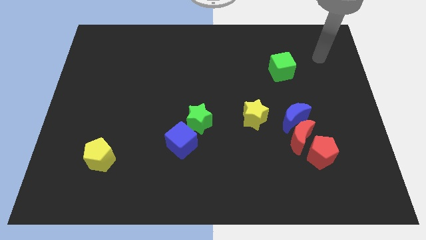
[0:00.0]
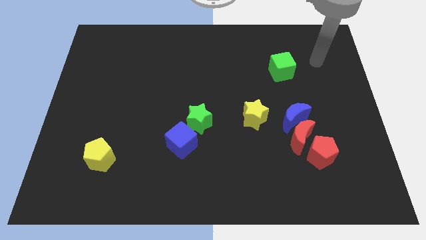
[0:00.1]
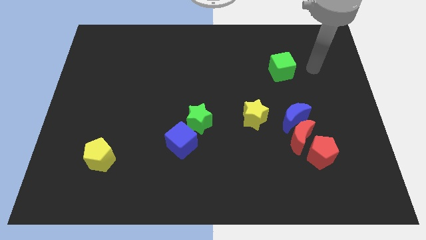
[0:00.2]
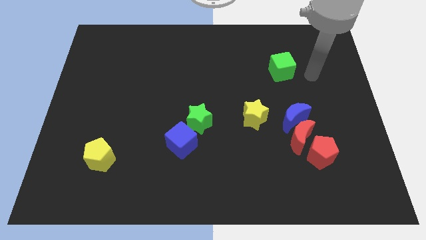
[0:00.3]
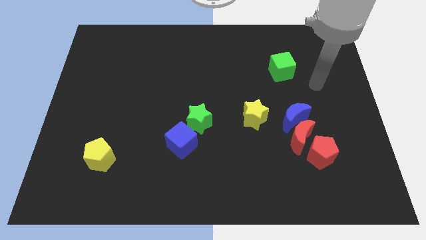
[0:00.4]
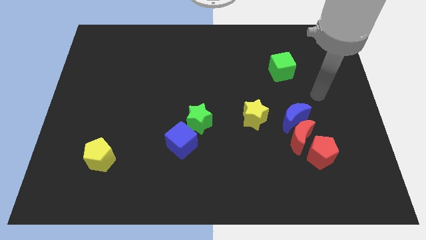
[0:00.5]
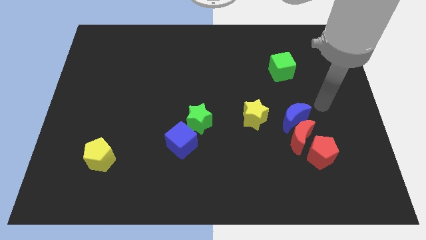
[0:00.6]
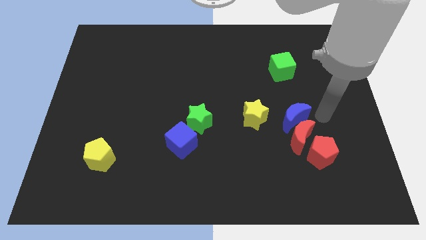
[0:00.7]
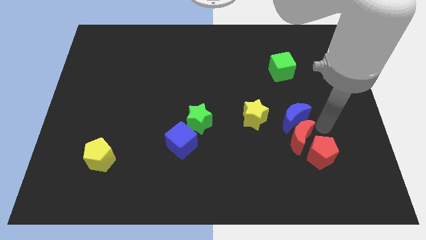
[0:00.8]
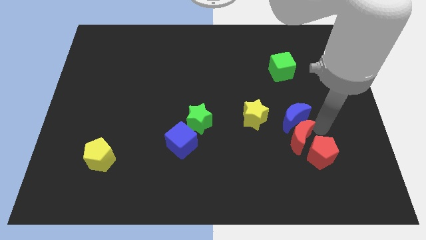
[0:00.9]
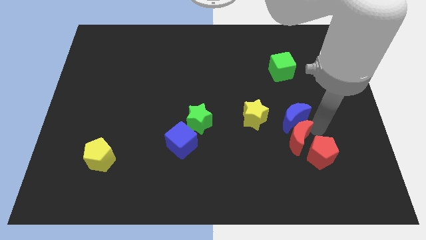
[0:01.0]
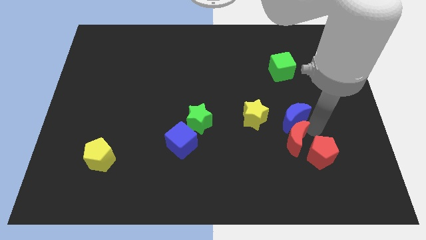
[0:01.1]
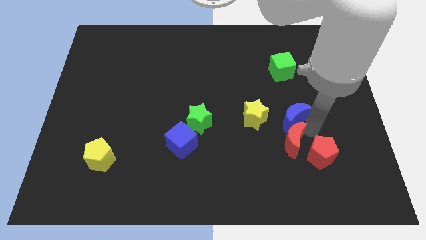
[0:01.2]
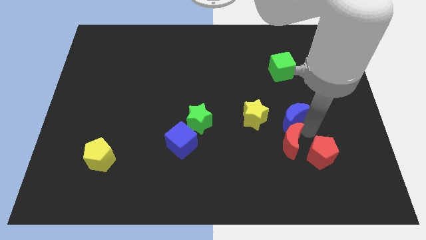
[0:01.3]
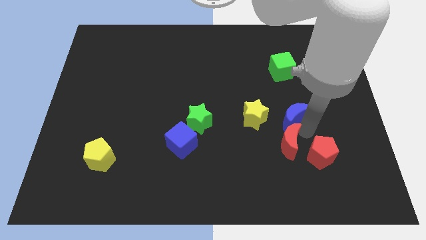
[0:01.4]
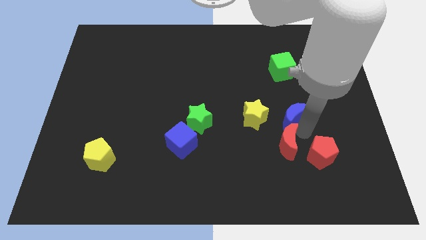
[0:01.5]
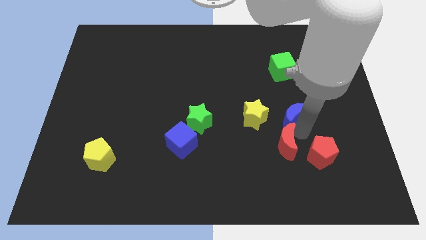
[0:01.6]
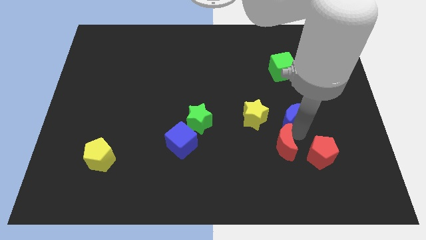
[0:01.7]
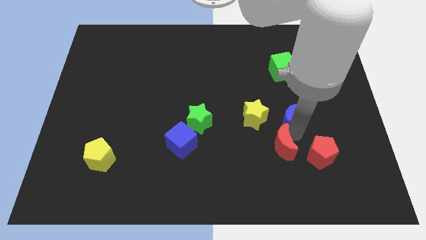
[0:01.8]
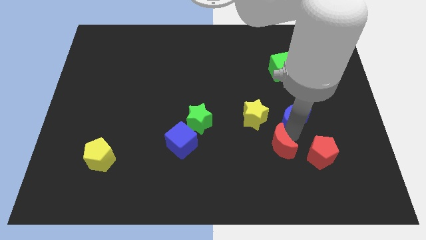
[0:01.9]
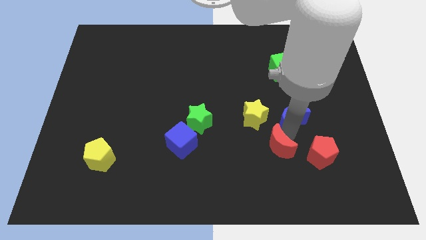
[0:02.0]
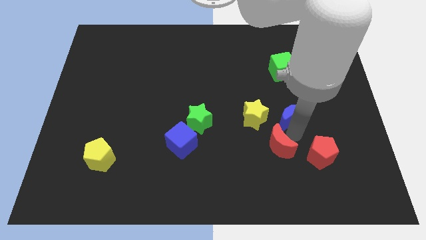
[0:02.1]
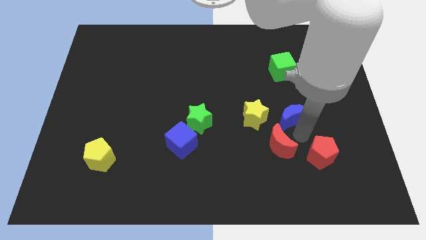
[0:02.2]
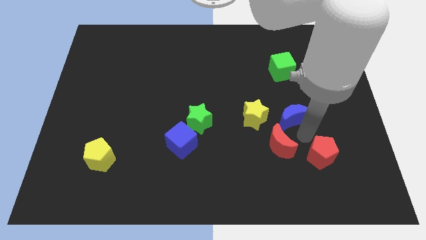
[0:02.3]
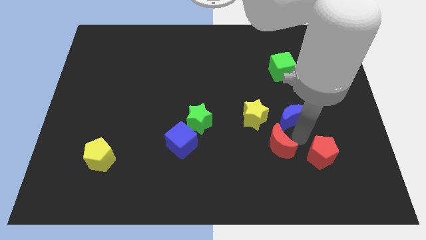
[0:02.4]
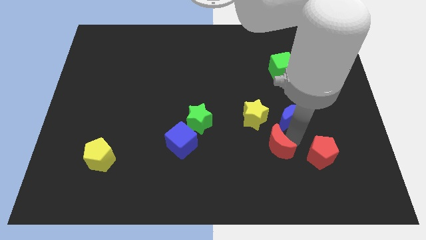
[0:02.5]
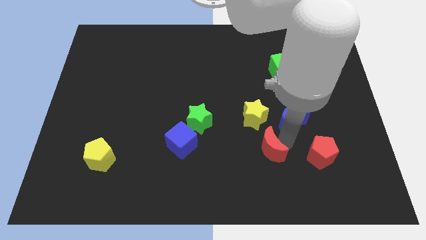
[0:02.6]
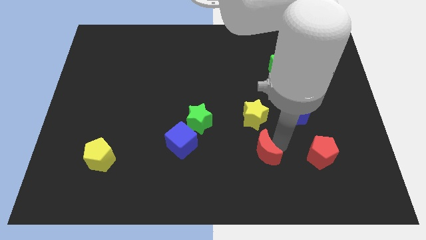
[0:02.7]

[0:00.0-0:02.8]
move the red moon away from the blue moon and red pentagon

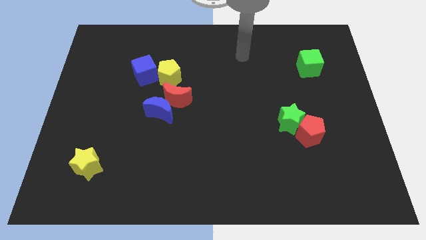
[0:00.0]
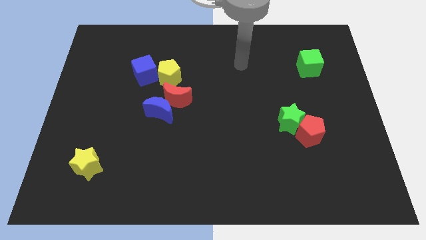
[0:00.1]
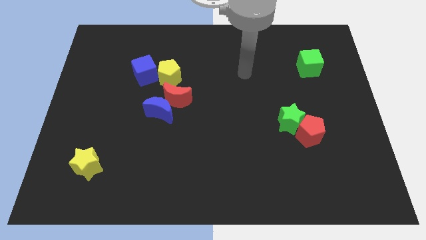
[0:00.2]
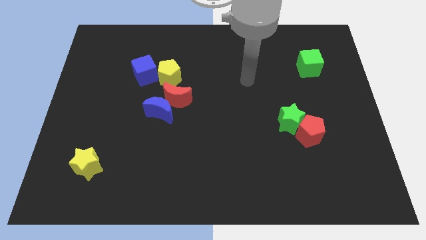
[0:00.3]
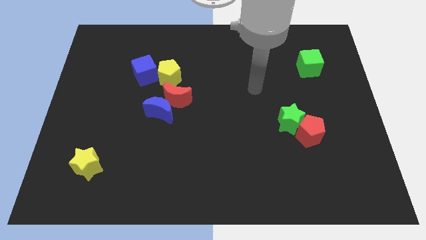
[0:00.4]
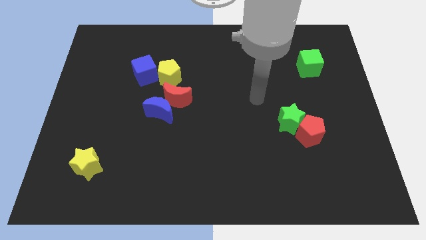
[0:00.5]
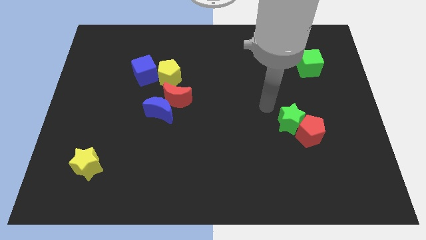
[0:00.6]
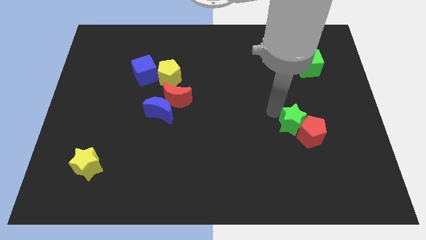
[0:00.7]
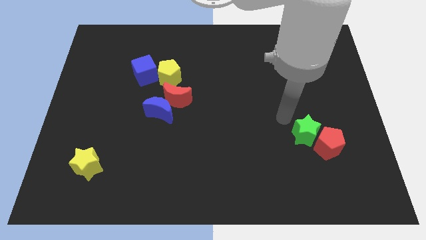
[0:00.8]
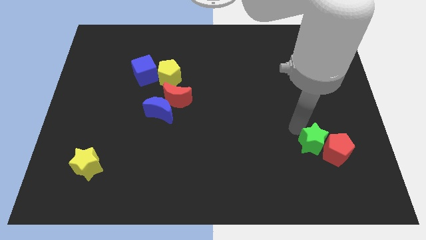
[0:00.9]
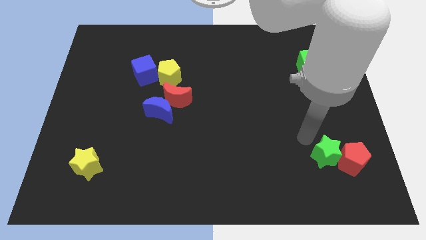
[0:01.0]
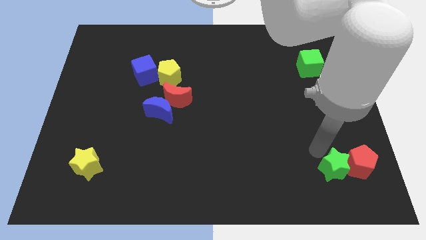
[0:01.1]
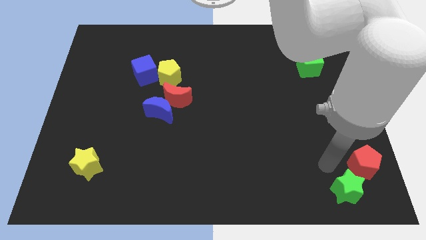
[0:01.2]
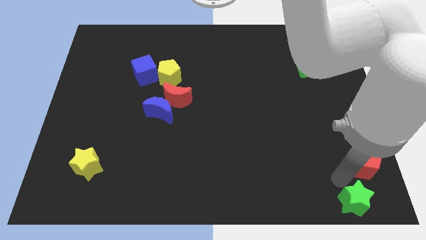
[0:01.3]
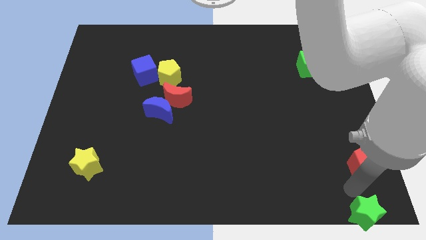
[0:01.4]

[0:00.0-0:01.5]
move the red pentagon away from the green star

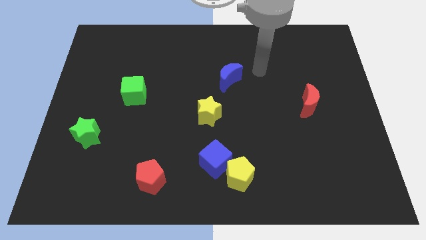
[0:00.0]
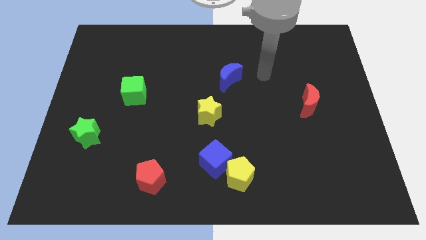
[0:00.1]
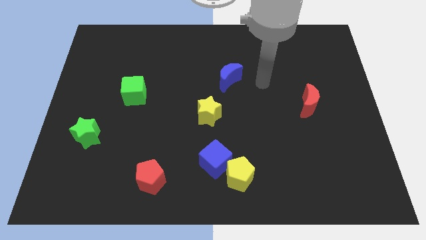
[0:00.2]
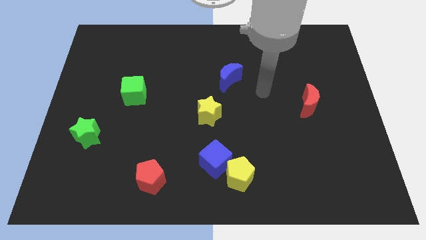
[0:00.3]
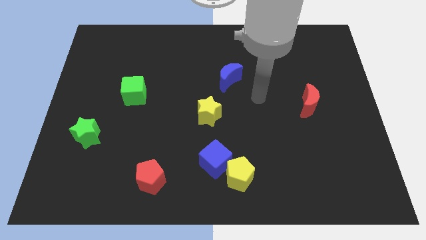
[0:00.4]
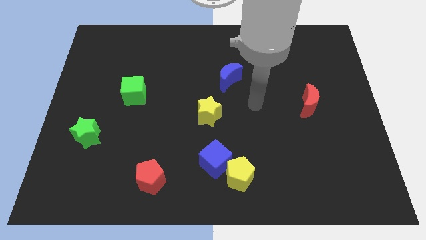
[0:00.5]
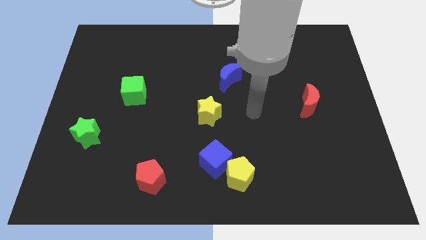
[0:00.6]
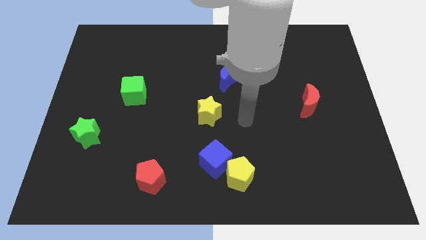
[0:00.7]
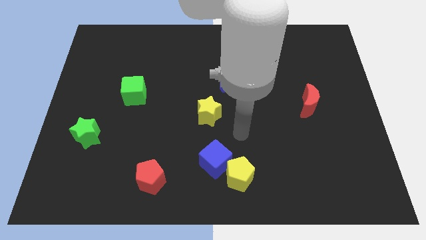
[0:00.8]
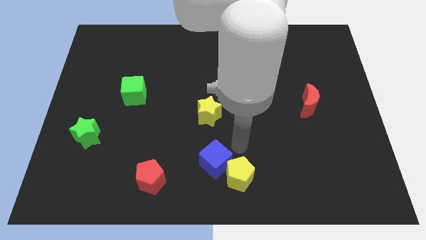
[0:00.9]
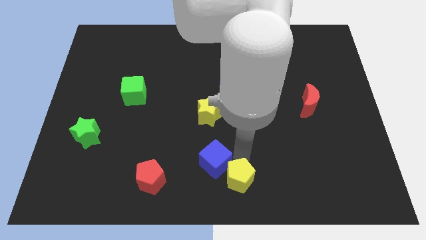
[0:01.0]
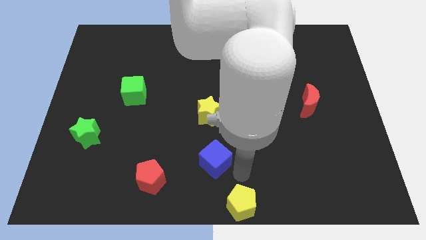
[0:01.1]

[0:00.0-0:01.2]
separate the blue cube from the yellow pentagon

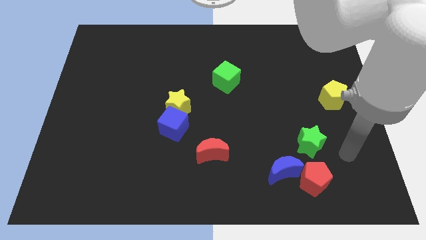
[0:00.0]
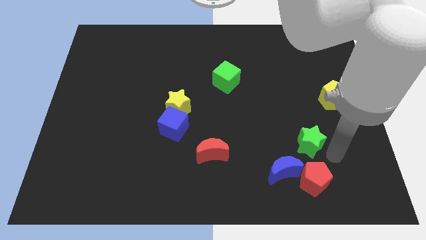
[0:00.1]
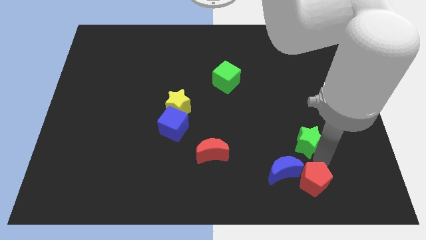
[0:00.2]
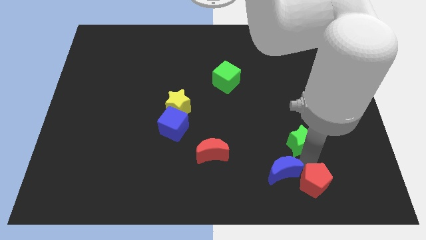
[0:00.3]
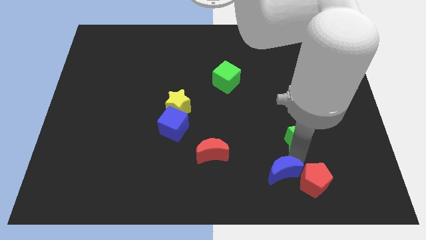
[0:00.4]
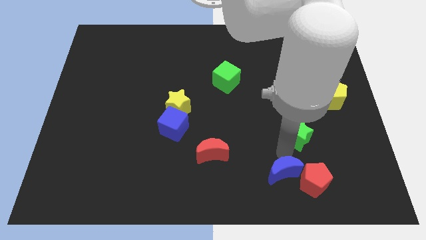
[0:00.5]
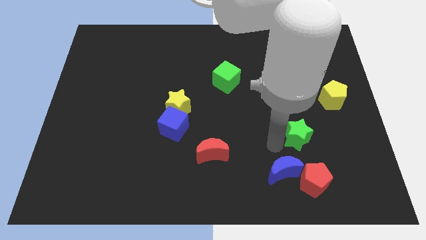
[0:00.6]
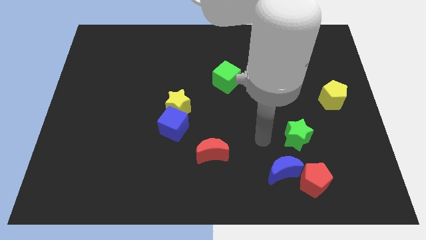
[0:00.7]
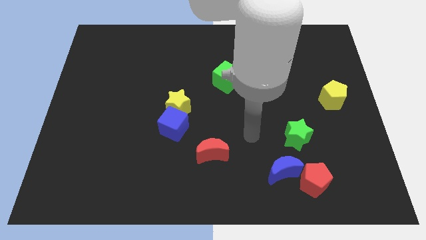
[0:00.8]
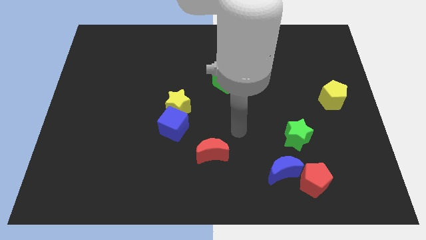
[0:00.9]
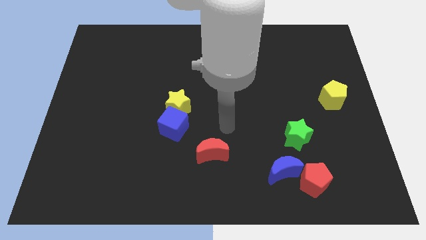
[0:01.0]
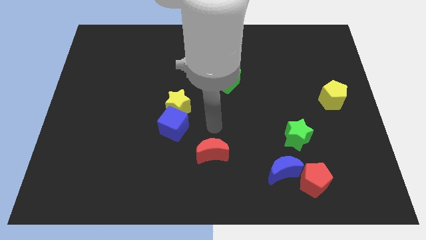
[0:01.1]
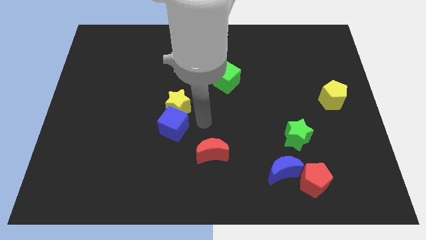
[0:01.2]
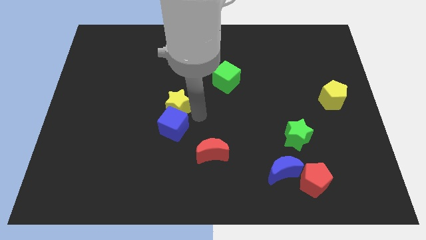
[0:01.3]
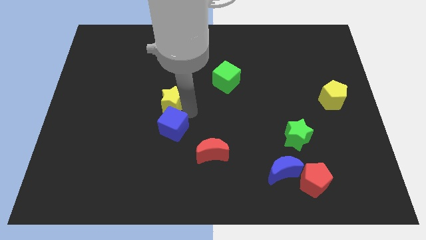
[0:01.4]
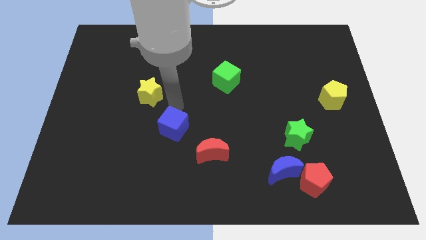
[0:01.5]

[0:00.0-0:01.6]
pull the blue cube apart from the yellow star

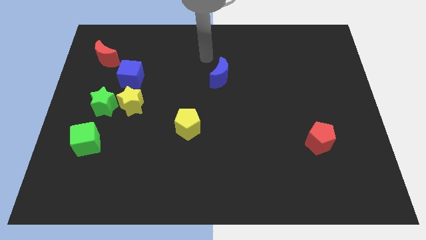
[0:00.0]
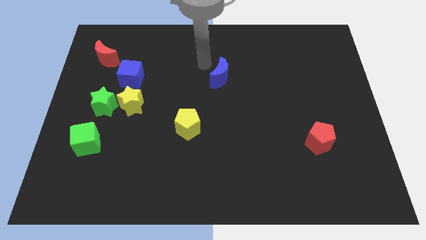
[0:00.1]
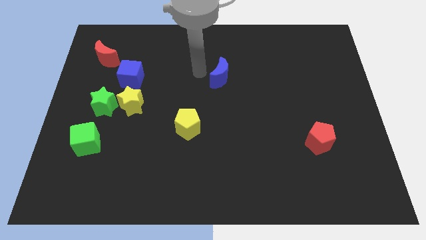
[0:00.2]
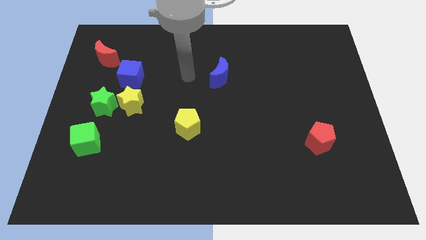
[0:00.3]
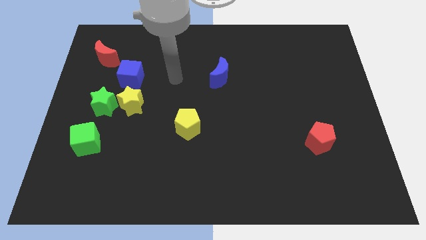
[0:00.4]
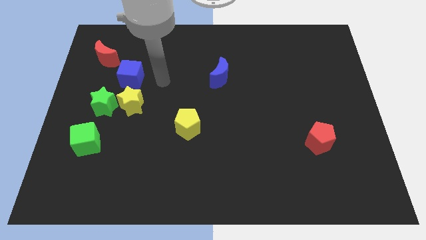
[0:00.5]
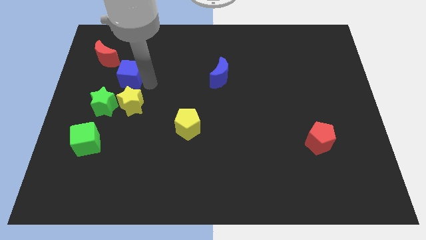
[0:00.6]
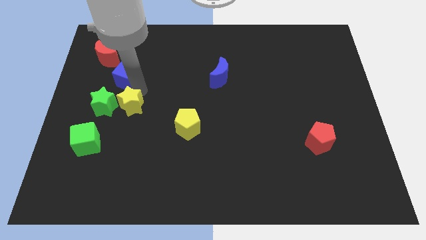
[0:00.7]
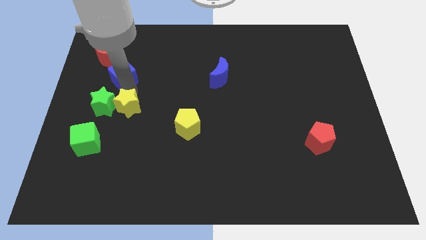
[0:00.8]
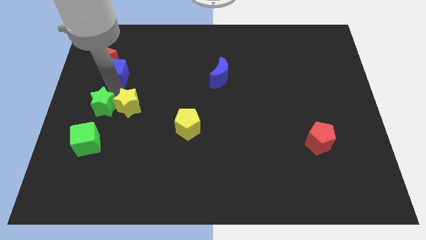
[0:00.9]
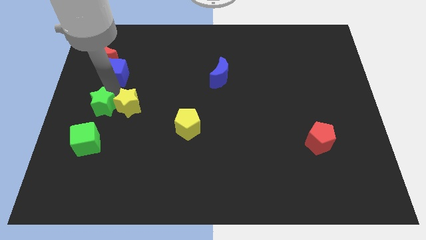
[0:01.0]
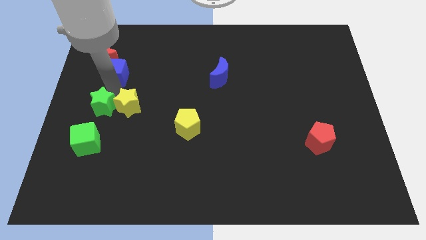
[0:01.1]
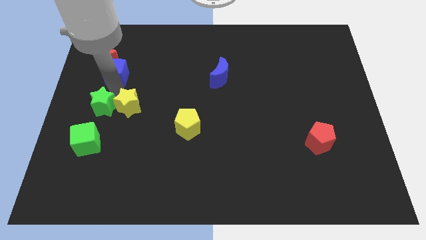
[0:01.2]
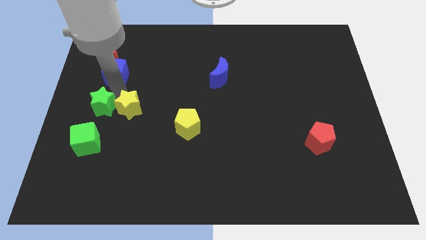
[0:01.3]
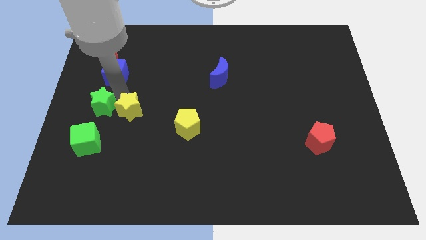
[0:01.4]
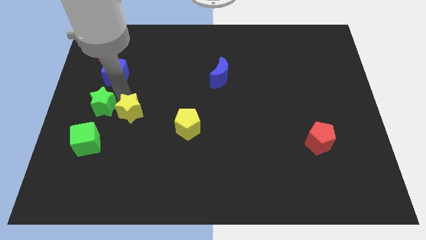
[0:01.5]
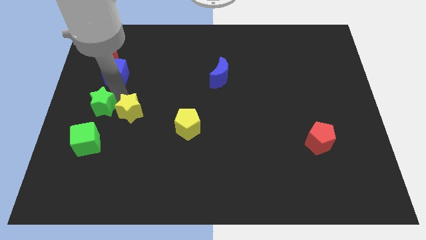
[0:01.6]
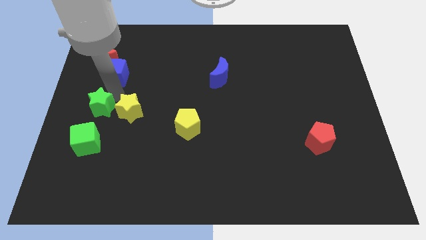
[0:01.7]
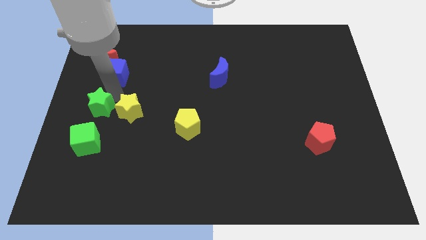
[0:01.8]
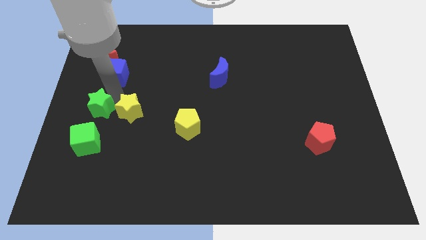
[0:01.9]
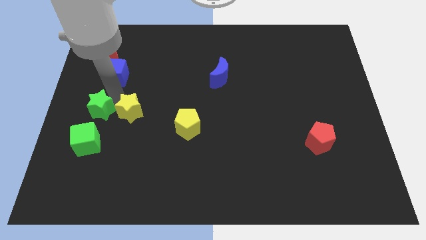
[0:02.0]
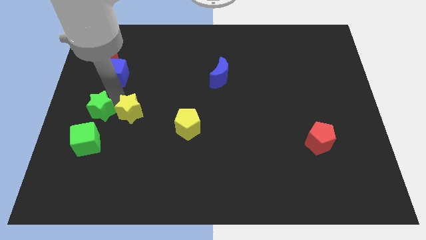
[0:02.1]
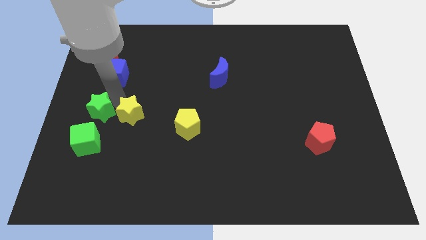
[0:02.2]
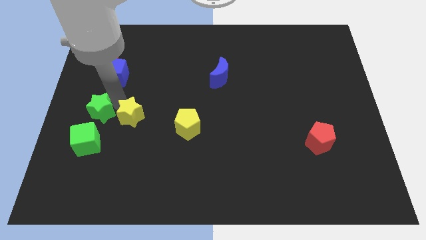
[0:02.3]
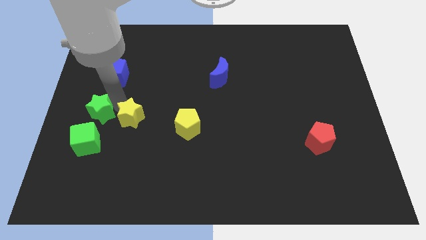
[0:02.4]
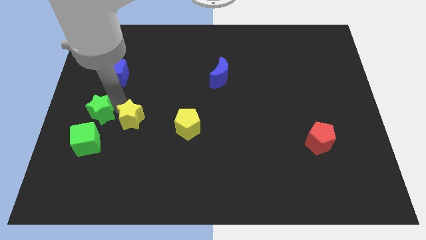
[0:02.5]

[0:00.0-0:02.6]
move the yellow star away from the green star and blue cube
